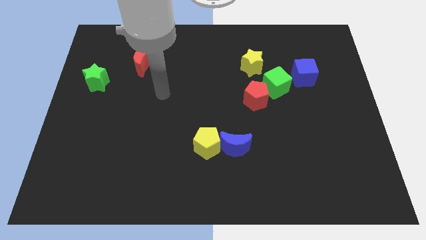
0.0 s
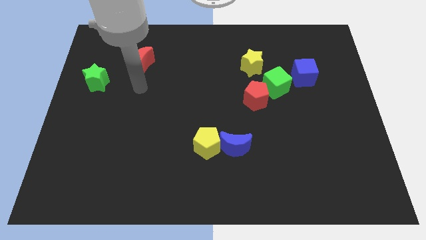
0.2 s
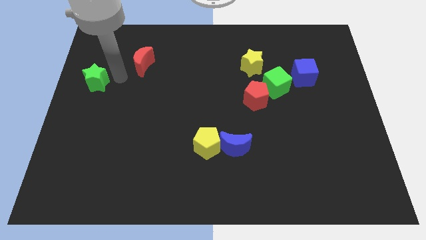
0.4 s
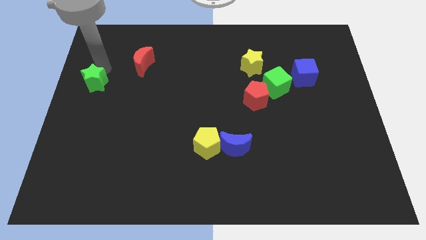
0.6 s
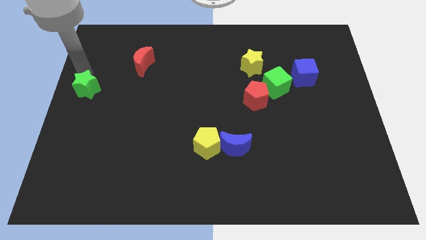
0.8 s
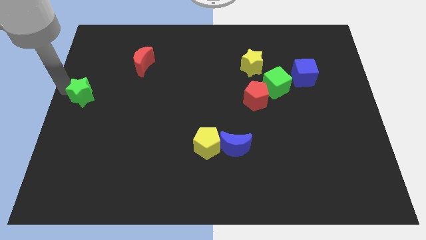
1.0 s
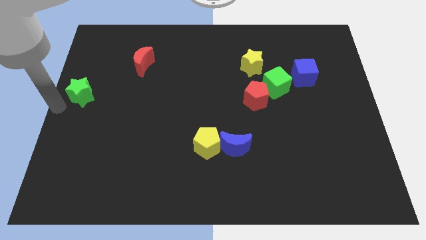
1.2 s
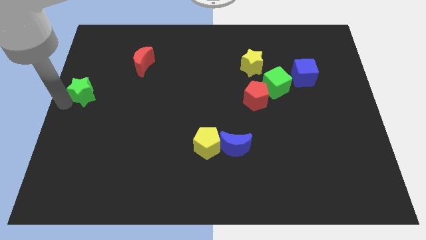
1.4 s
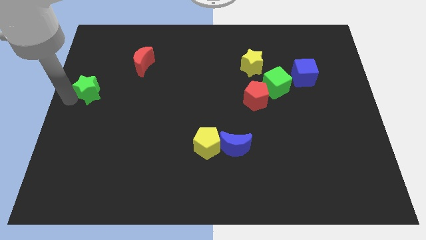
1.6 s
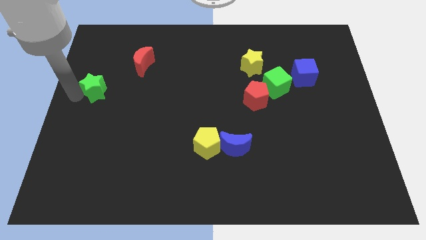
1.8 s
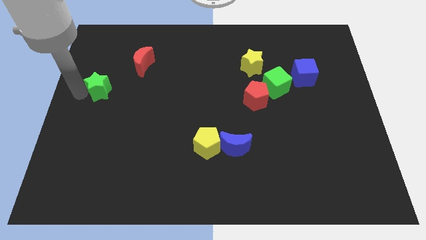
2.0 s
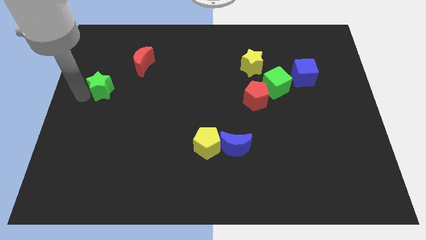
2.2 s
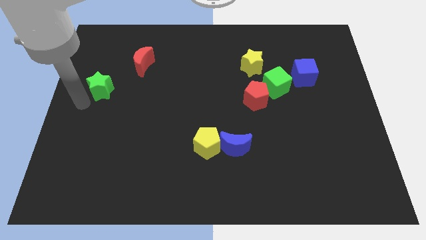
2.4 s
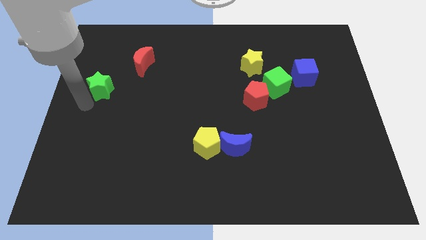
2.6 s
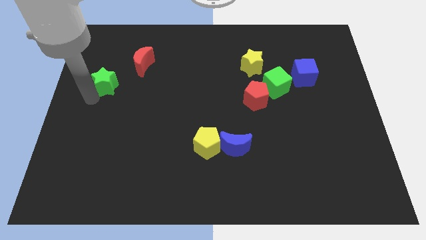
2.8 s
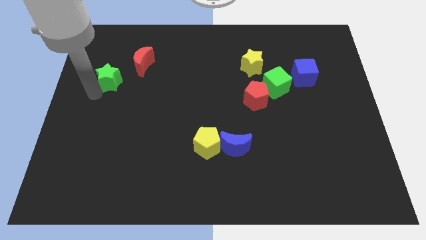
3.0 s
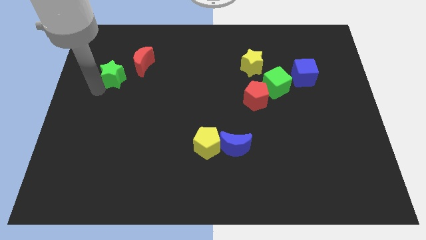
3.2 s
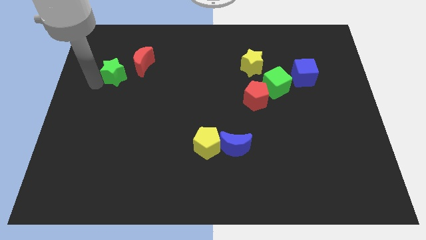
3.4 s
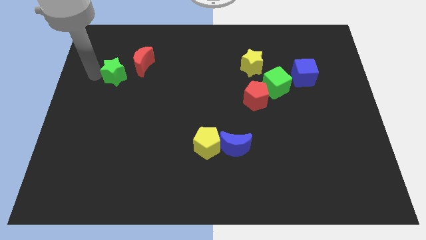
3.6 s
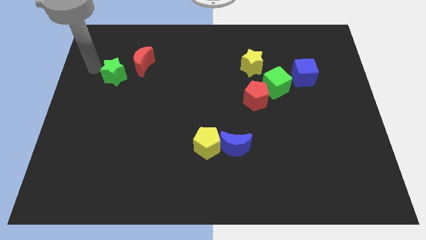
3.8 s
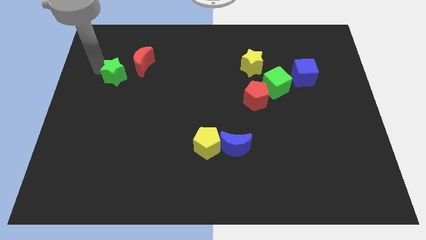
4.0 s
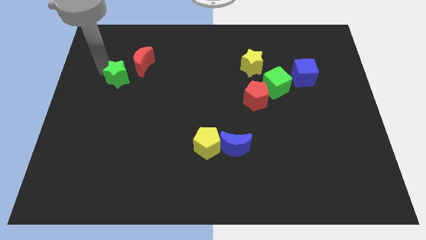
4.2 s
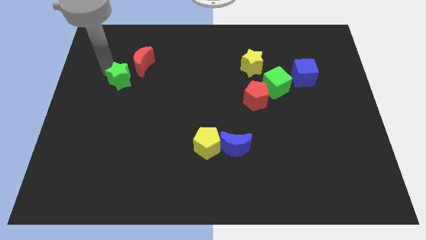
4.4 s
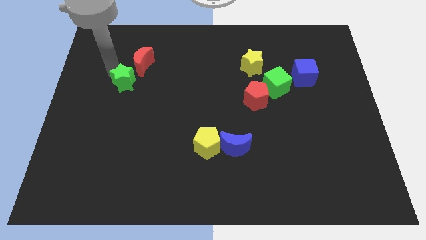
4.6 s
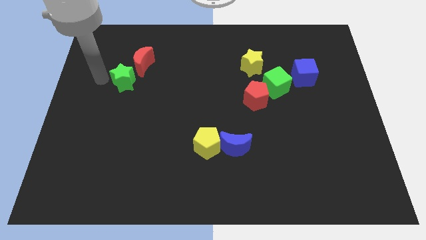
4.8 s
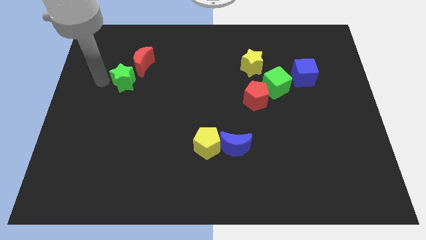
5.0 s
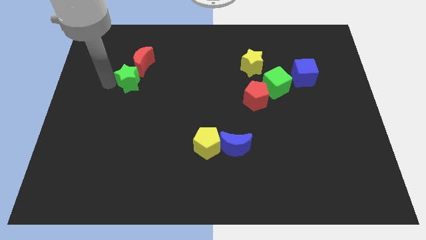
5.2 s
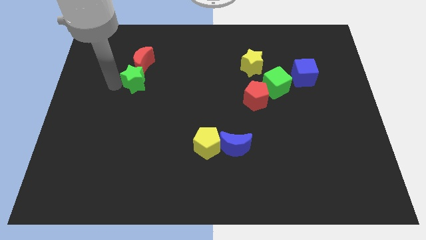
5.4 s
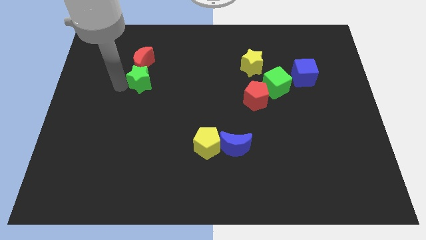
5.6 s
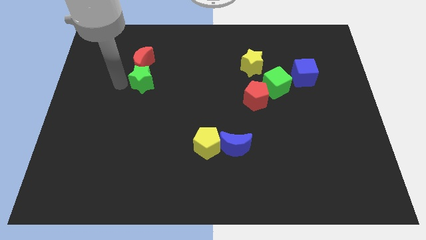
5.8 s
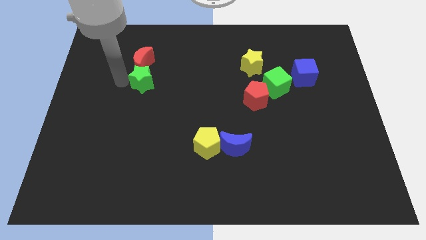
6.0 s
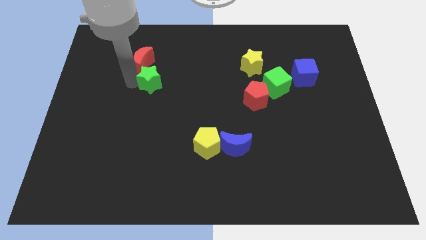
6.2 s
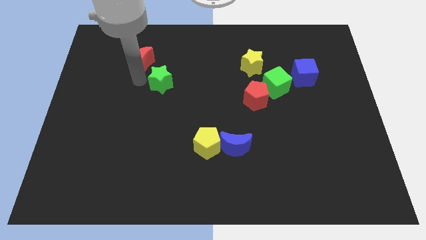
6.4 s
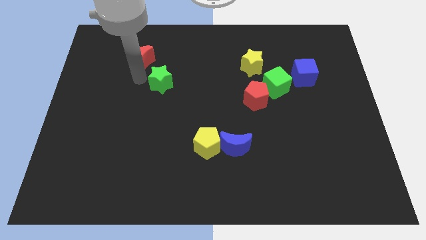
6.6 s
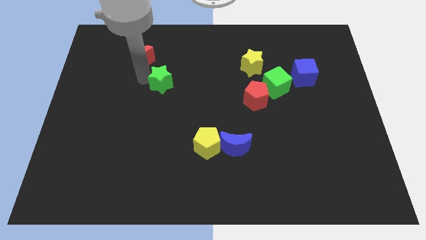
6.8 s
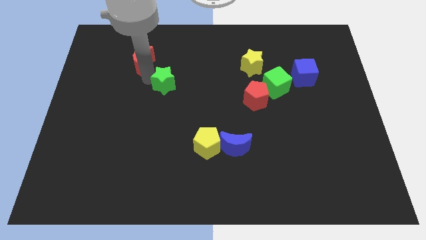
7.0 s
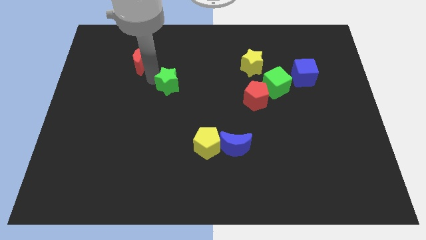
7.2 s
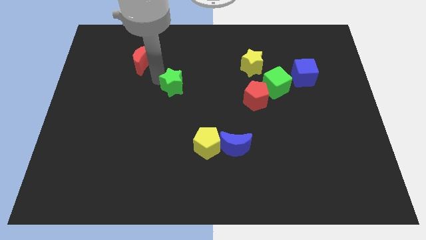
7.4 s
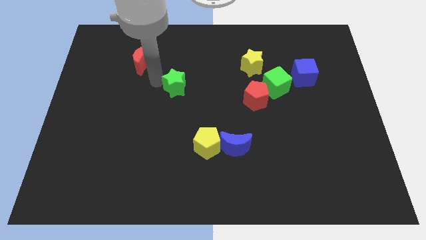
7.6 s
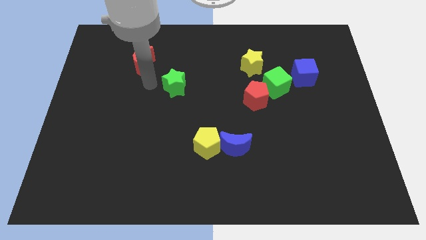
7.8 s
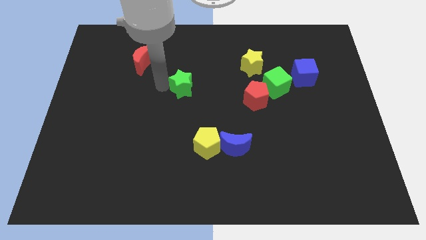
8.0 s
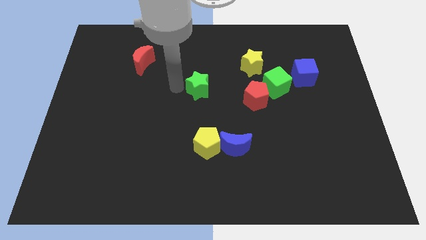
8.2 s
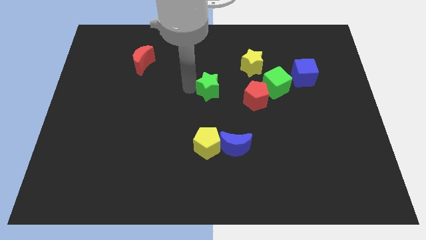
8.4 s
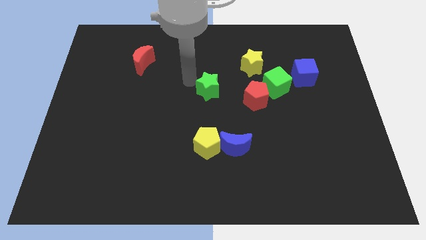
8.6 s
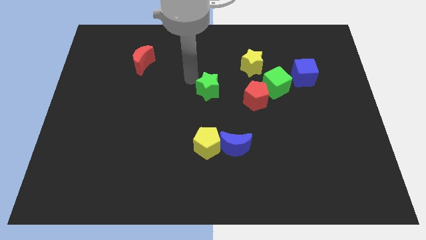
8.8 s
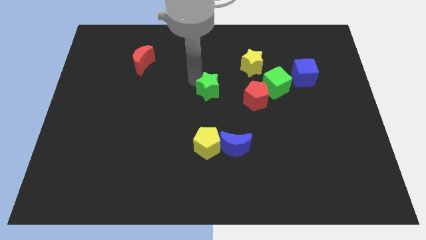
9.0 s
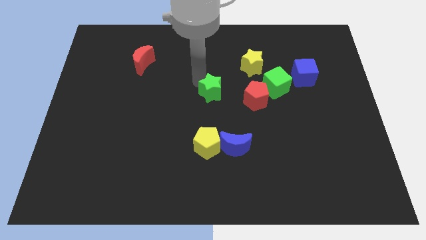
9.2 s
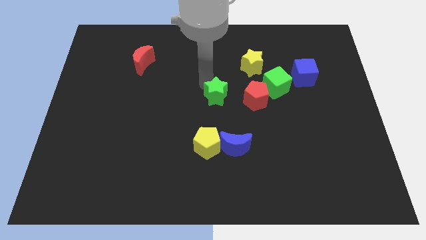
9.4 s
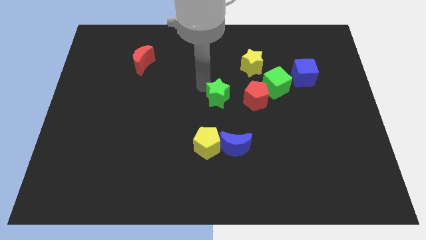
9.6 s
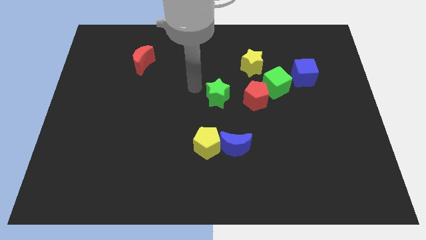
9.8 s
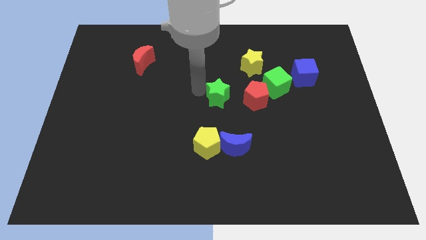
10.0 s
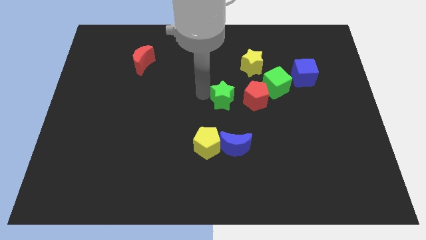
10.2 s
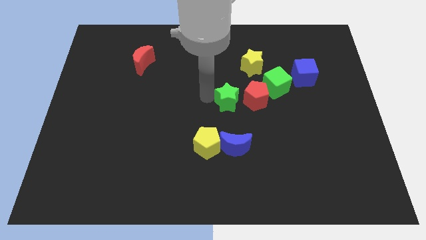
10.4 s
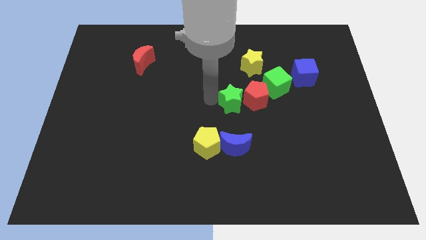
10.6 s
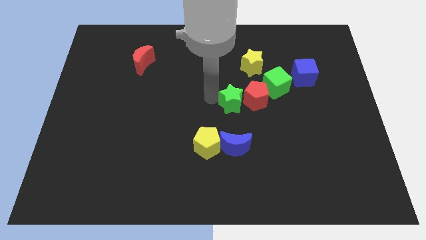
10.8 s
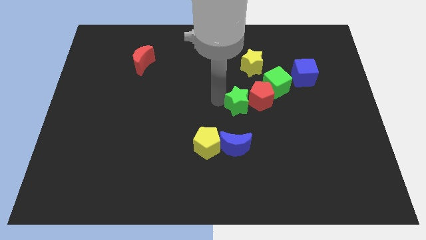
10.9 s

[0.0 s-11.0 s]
slide the green star below the yellow star
